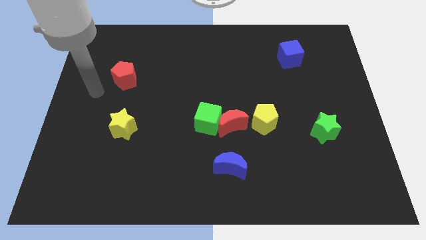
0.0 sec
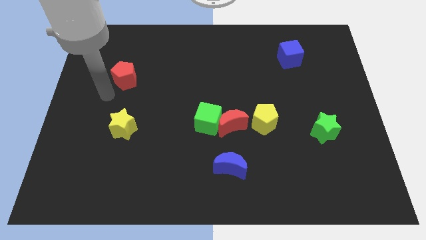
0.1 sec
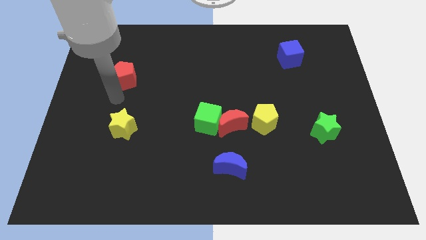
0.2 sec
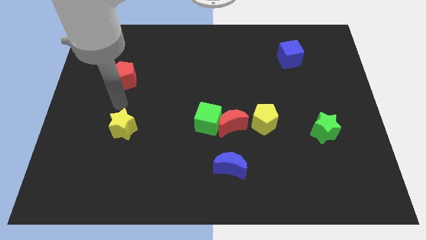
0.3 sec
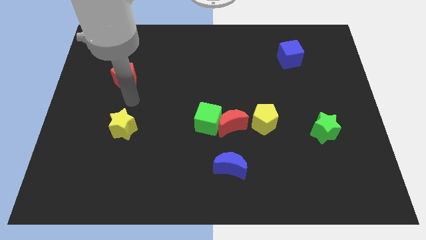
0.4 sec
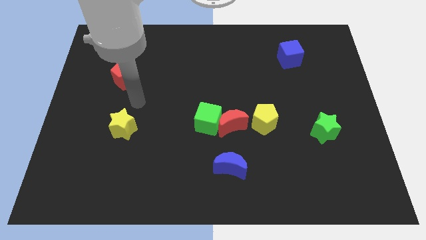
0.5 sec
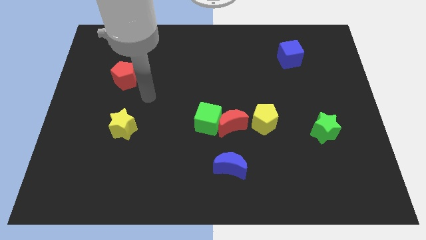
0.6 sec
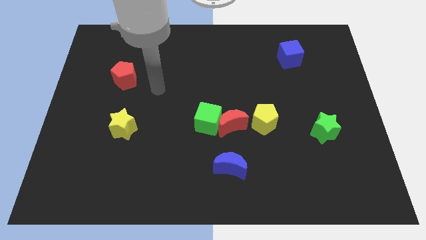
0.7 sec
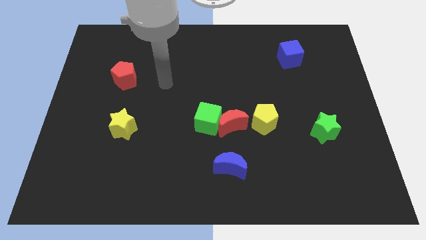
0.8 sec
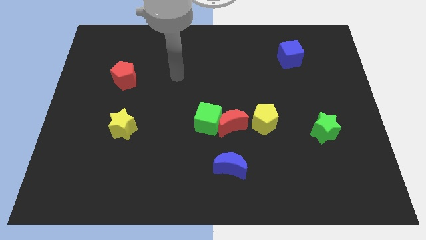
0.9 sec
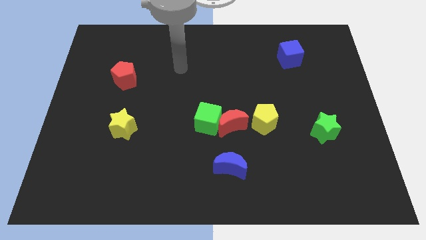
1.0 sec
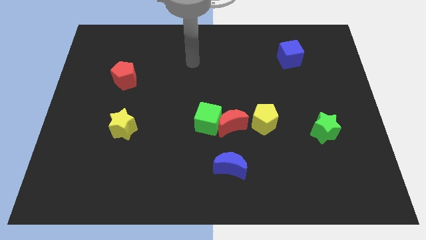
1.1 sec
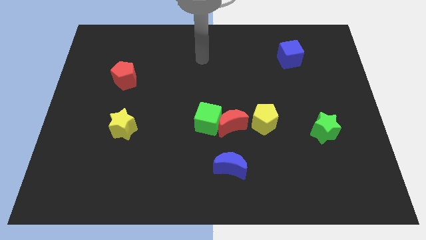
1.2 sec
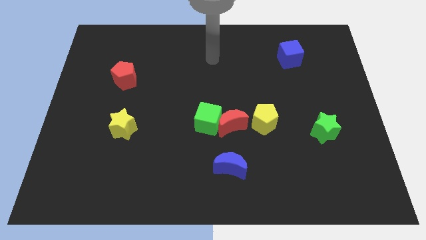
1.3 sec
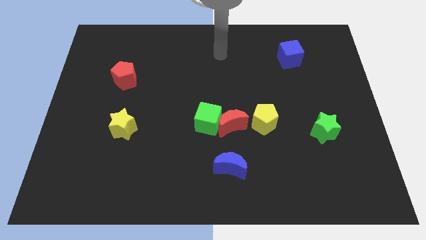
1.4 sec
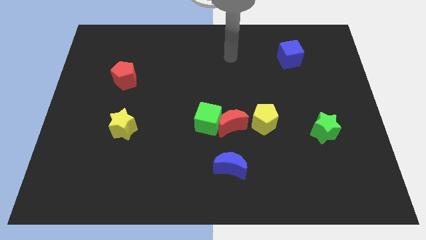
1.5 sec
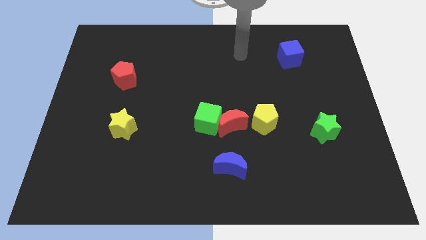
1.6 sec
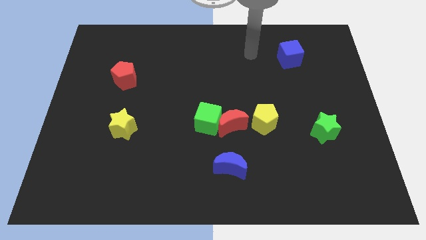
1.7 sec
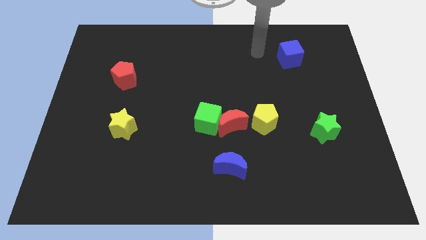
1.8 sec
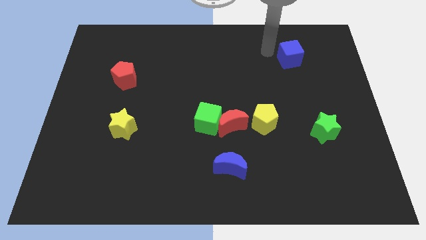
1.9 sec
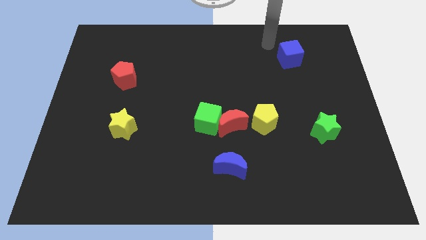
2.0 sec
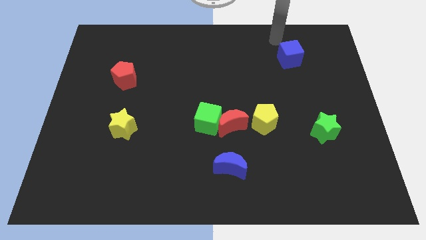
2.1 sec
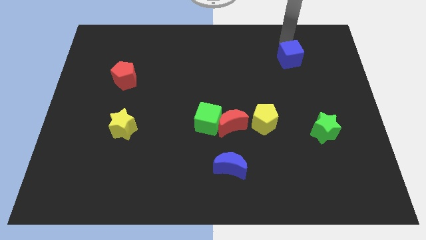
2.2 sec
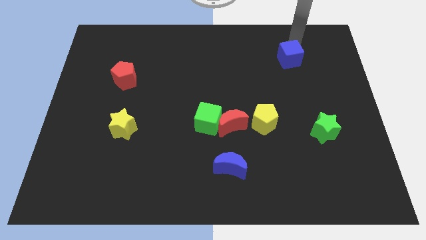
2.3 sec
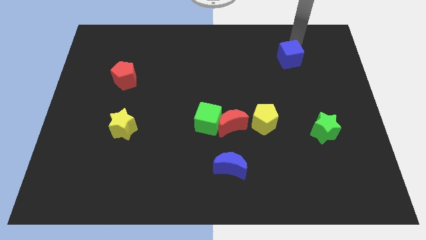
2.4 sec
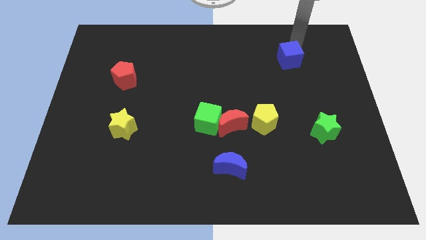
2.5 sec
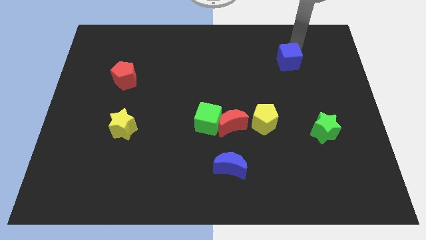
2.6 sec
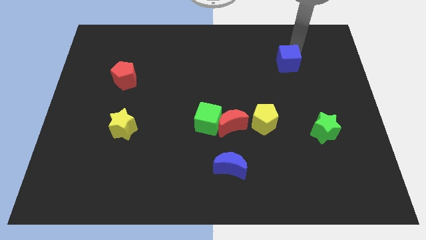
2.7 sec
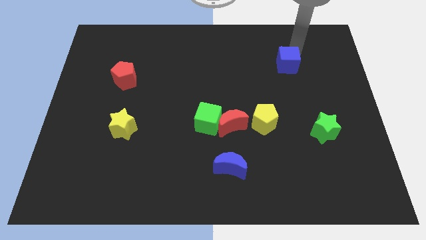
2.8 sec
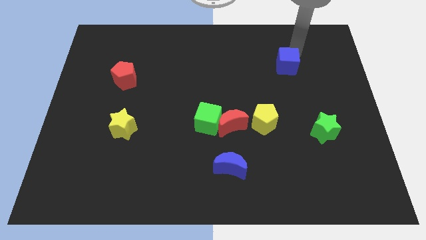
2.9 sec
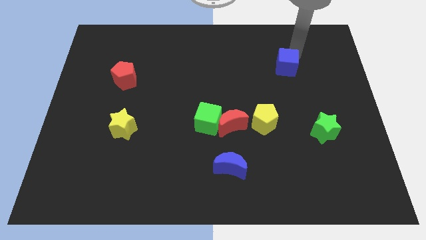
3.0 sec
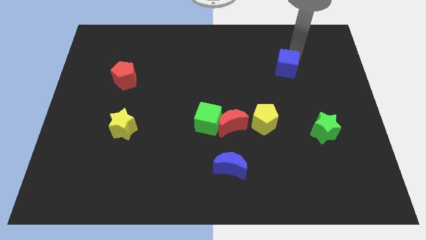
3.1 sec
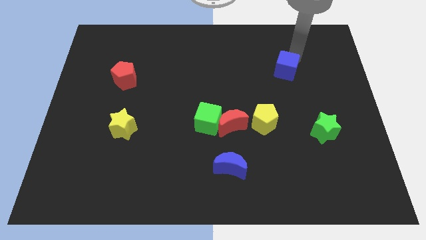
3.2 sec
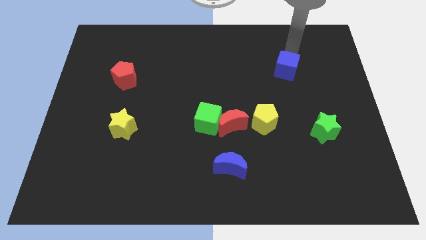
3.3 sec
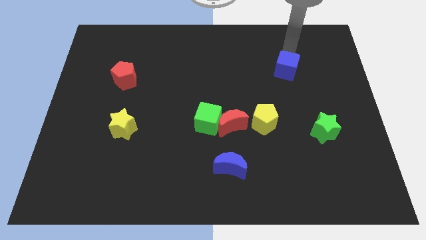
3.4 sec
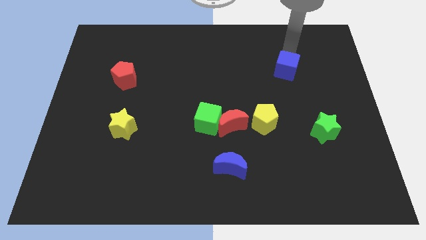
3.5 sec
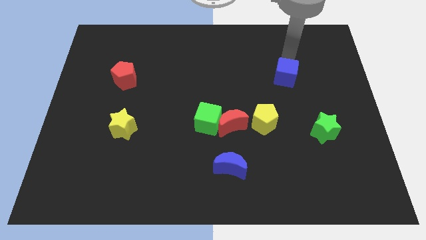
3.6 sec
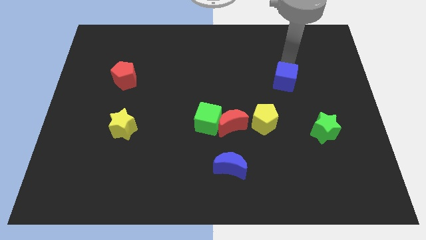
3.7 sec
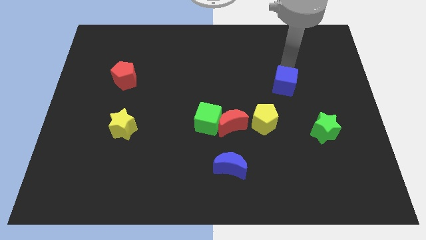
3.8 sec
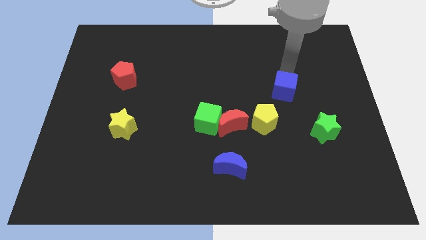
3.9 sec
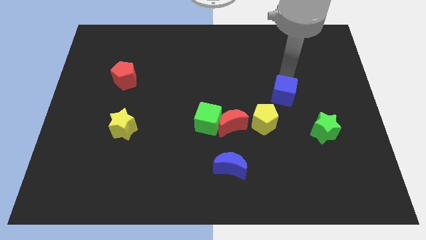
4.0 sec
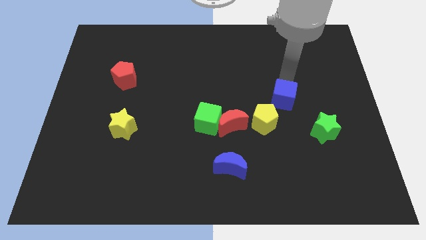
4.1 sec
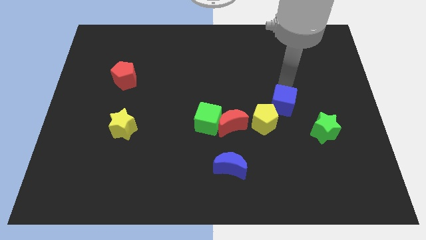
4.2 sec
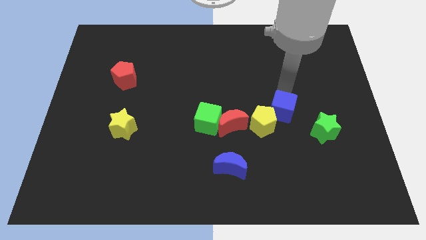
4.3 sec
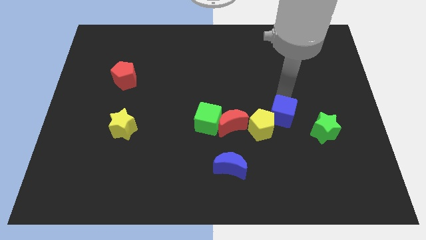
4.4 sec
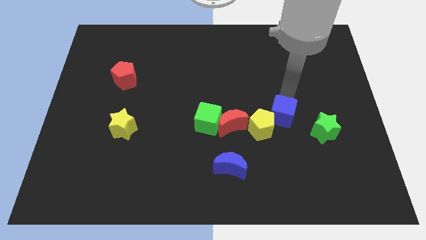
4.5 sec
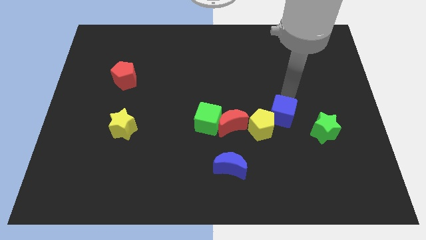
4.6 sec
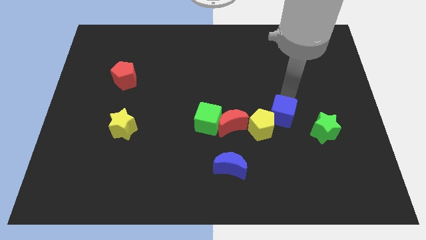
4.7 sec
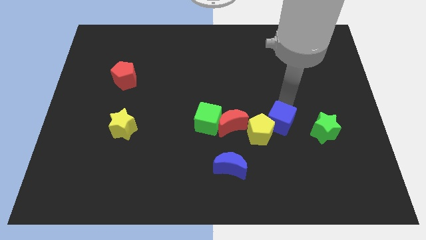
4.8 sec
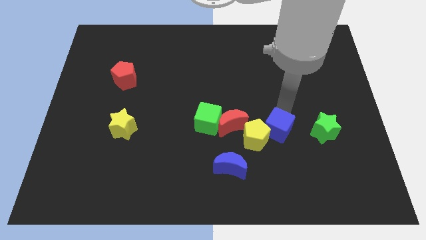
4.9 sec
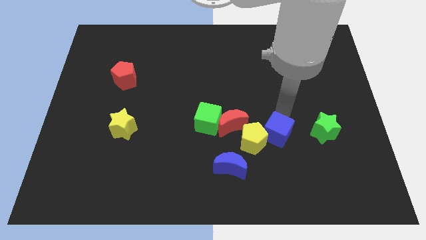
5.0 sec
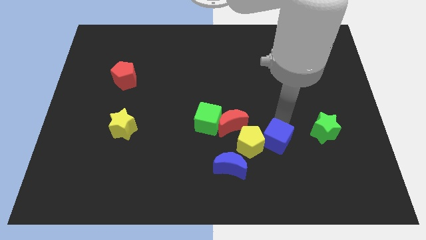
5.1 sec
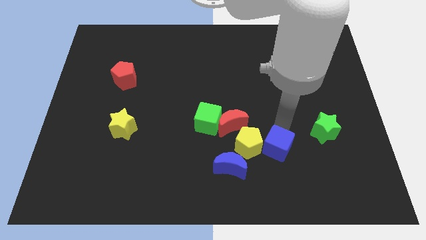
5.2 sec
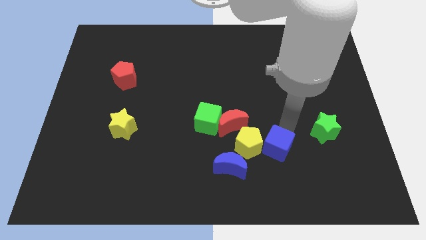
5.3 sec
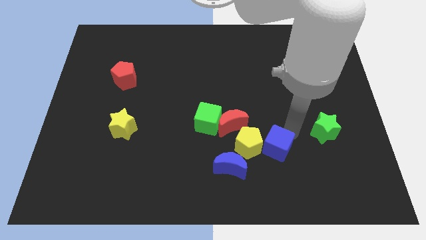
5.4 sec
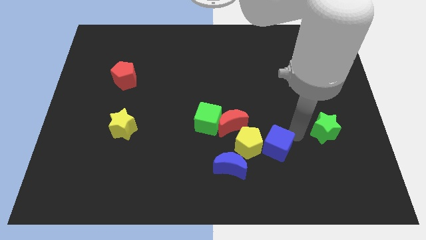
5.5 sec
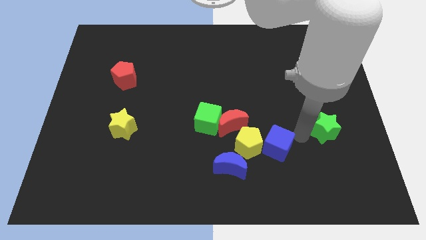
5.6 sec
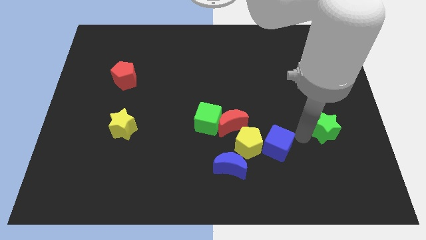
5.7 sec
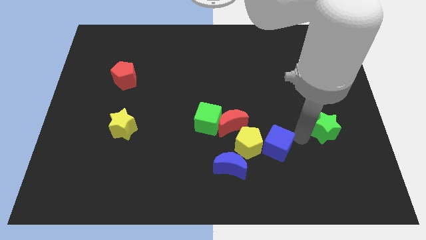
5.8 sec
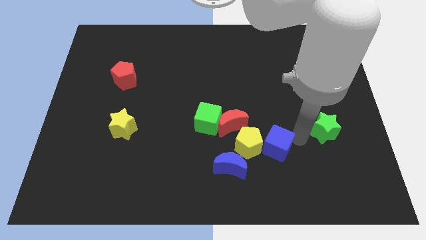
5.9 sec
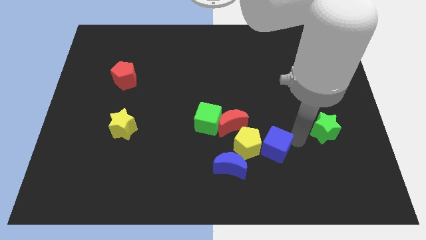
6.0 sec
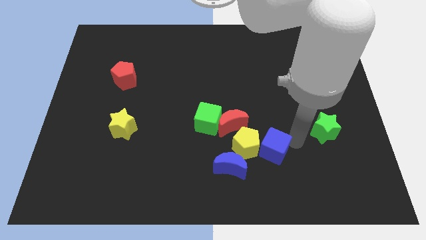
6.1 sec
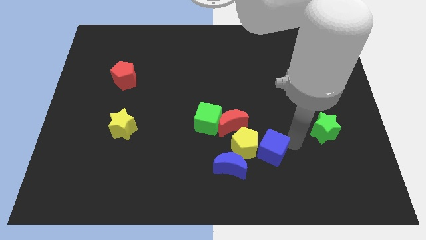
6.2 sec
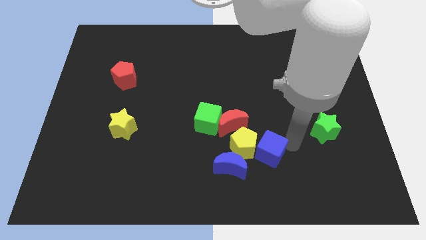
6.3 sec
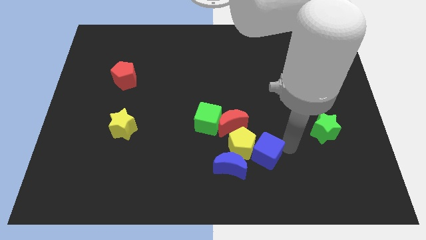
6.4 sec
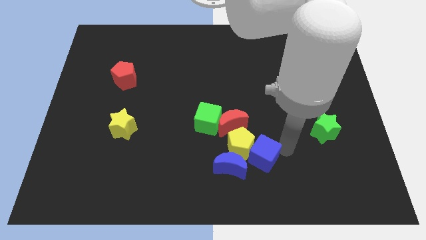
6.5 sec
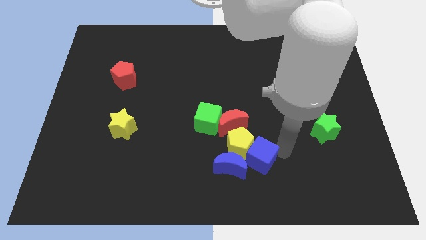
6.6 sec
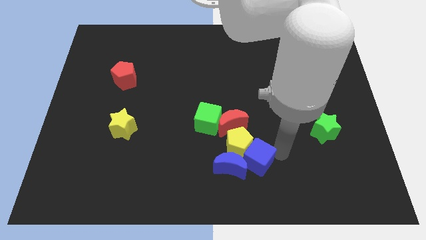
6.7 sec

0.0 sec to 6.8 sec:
push the blue cube close to the blue moon
